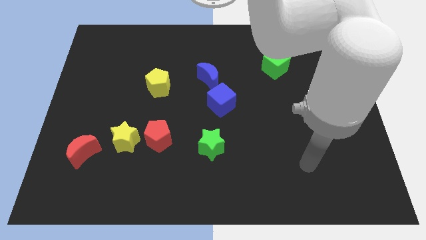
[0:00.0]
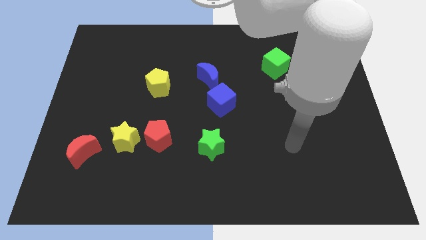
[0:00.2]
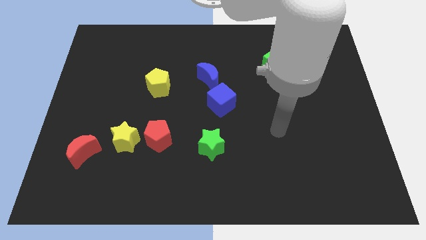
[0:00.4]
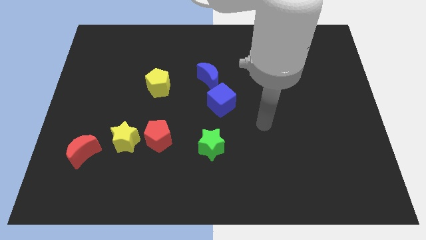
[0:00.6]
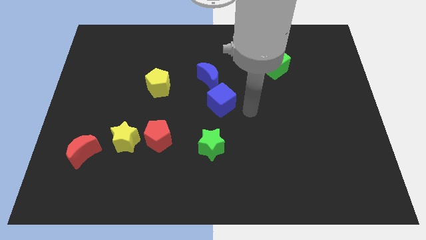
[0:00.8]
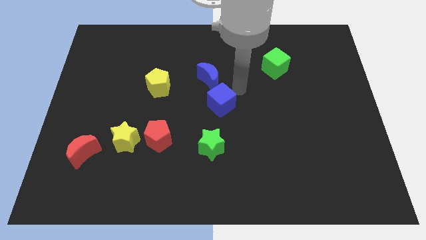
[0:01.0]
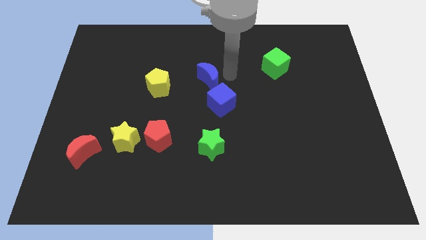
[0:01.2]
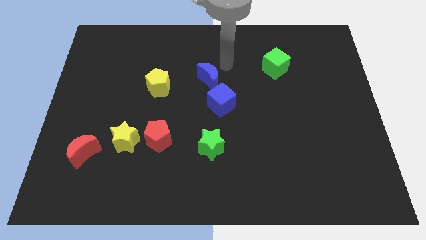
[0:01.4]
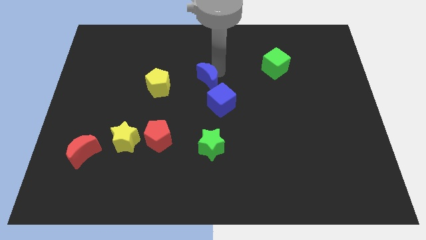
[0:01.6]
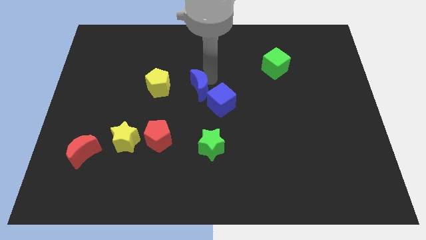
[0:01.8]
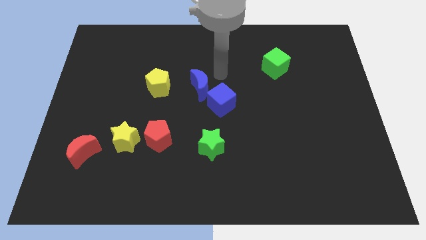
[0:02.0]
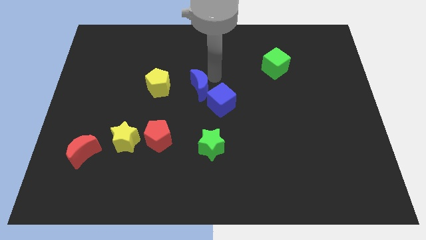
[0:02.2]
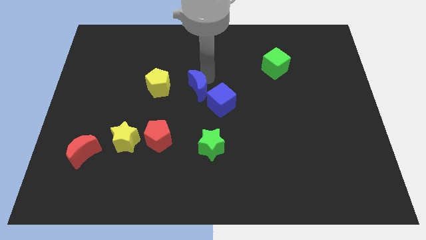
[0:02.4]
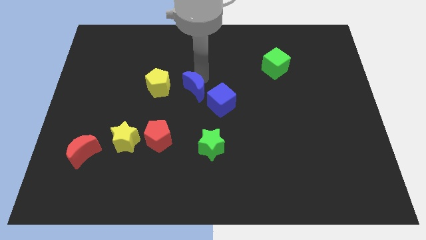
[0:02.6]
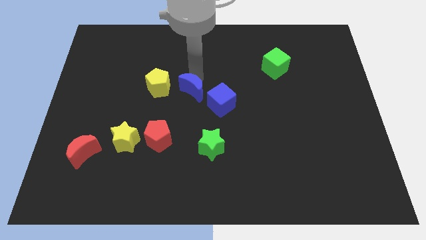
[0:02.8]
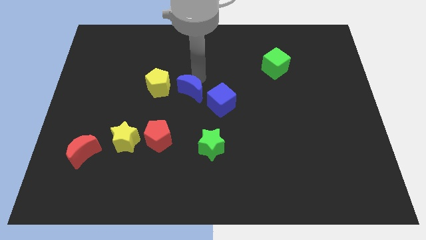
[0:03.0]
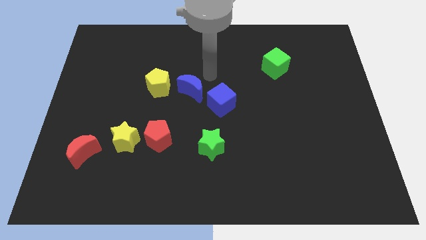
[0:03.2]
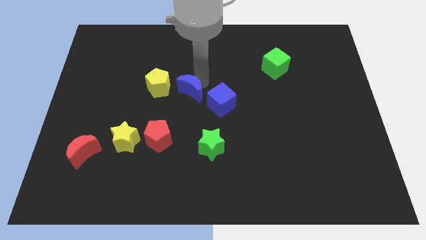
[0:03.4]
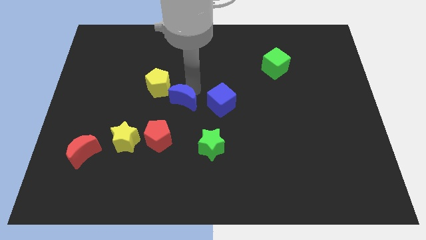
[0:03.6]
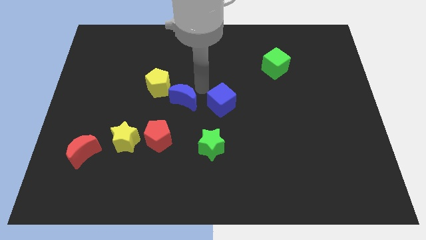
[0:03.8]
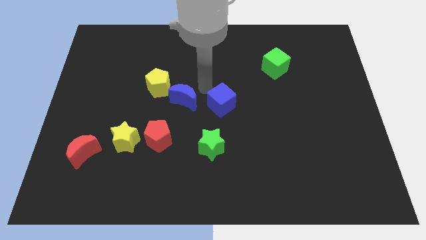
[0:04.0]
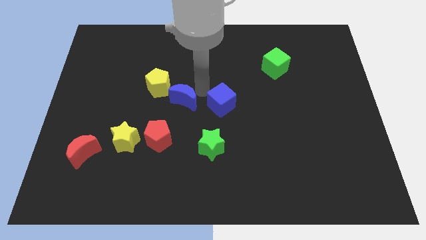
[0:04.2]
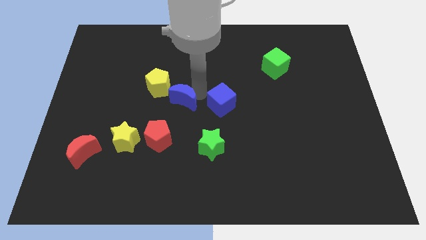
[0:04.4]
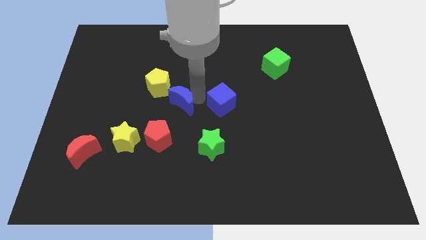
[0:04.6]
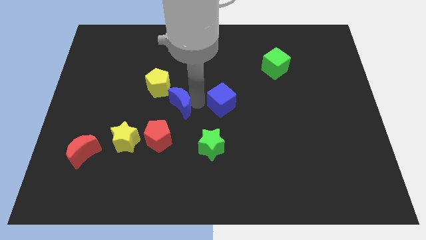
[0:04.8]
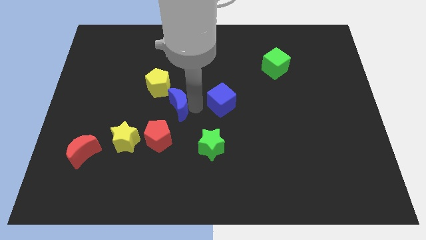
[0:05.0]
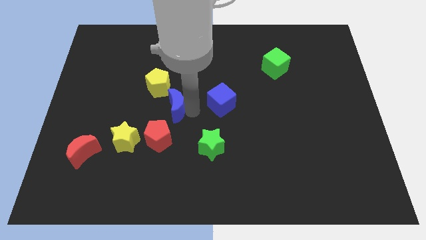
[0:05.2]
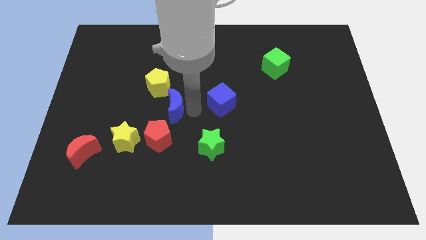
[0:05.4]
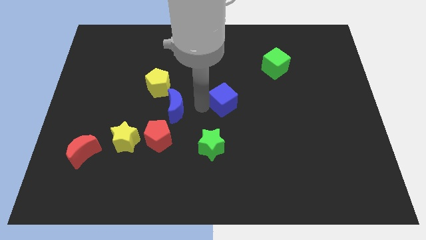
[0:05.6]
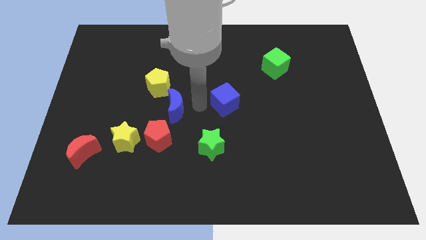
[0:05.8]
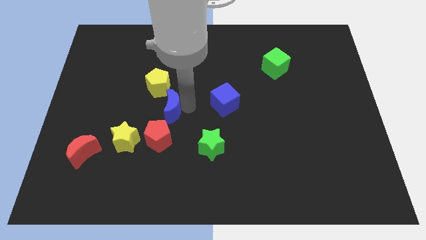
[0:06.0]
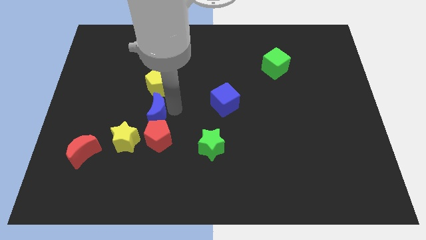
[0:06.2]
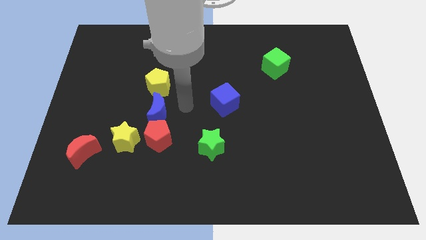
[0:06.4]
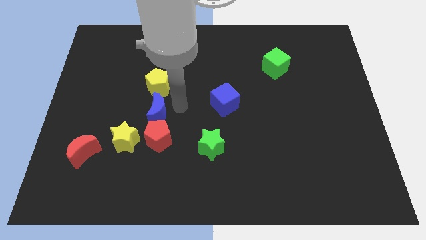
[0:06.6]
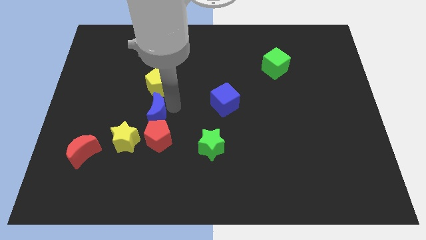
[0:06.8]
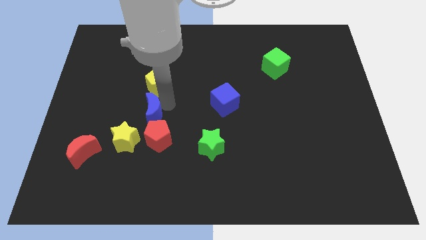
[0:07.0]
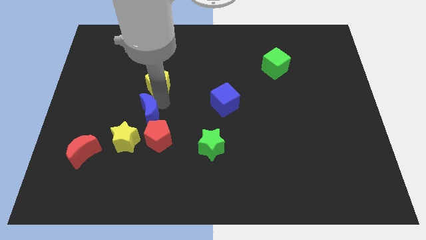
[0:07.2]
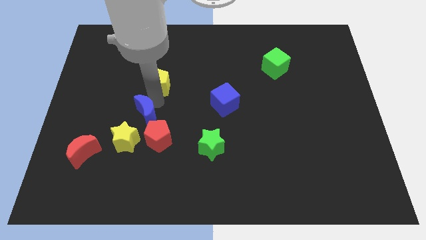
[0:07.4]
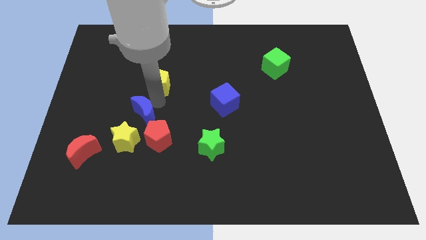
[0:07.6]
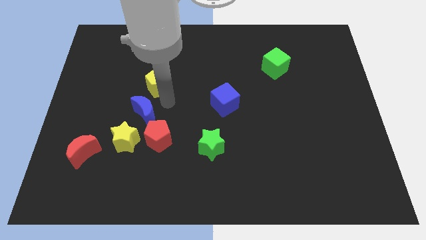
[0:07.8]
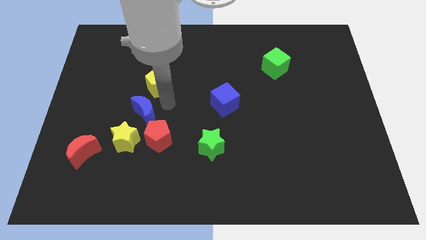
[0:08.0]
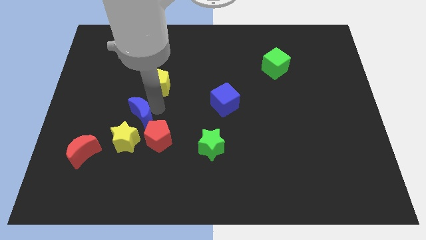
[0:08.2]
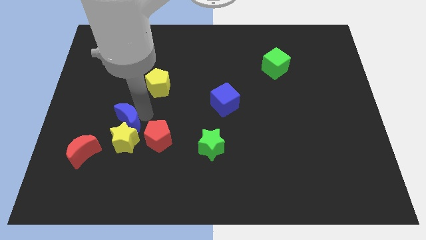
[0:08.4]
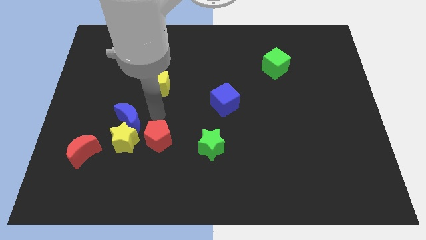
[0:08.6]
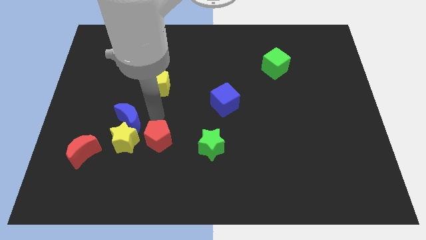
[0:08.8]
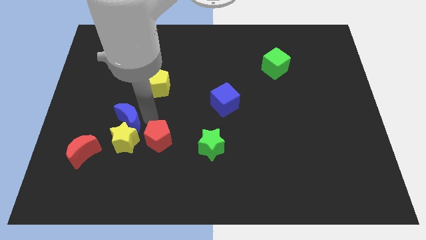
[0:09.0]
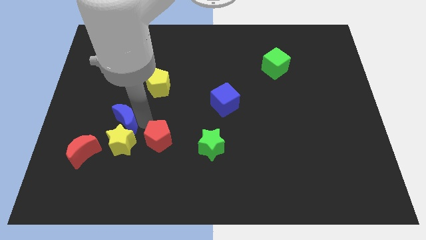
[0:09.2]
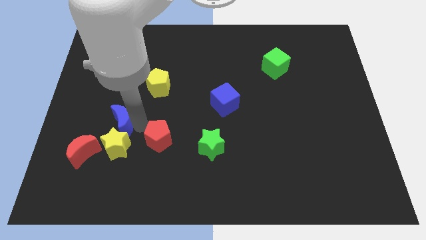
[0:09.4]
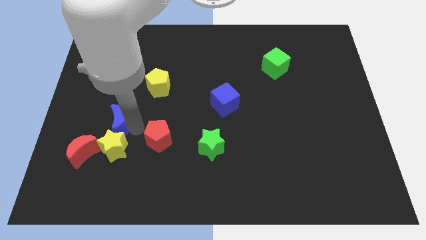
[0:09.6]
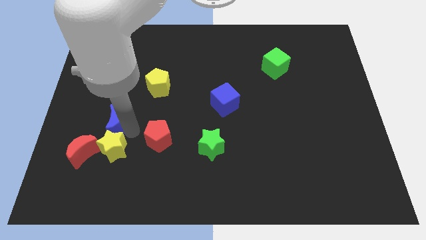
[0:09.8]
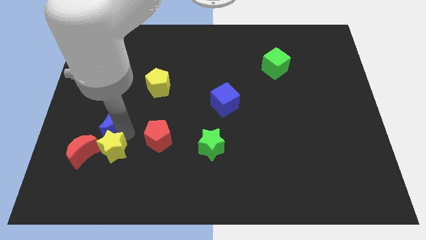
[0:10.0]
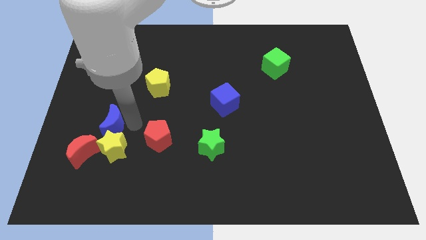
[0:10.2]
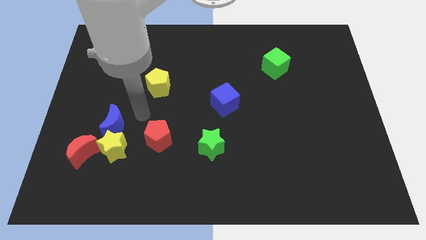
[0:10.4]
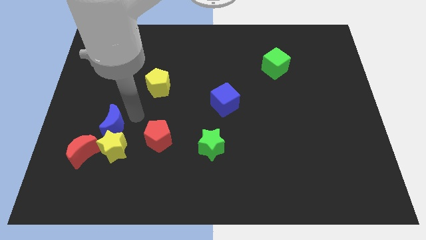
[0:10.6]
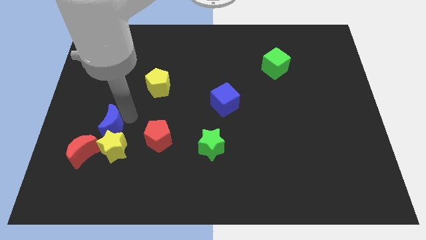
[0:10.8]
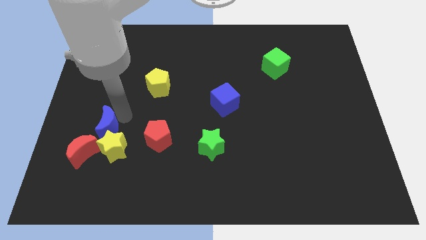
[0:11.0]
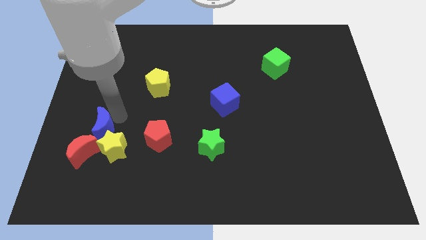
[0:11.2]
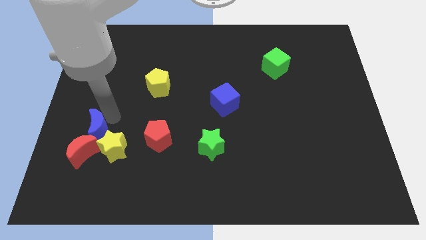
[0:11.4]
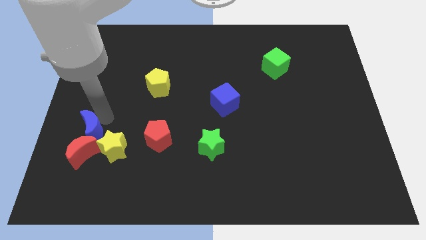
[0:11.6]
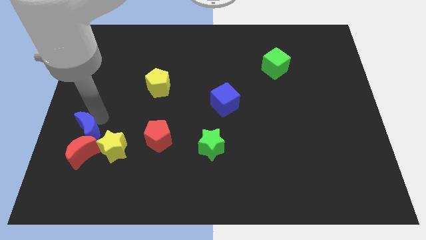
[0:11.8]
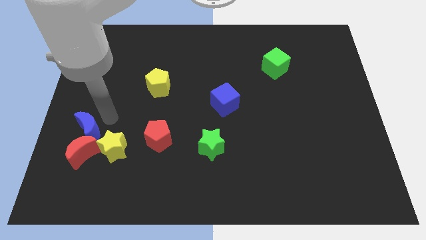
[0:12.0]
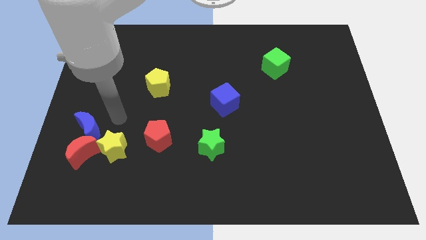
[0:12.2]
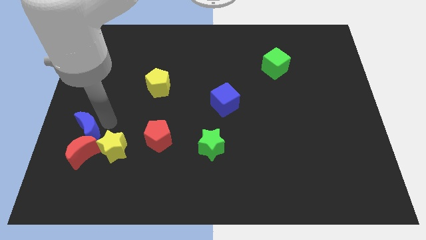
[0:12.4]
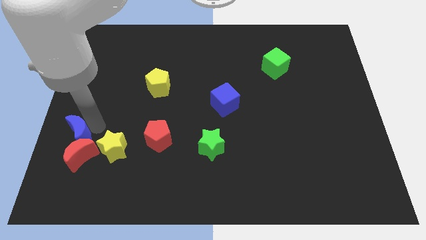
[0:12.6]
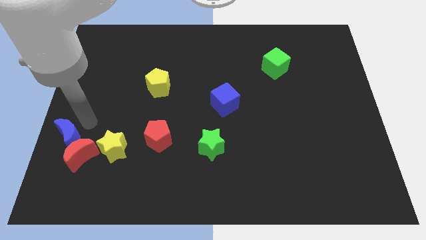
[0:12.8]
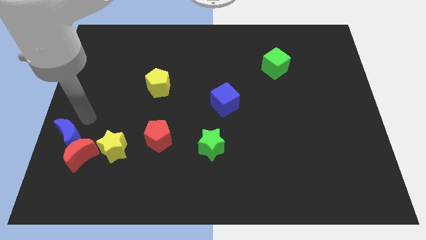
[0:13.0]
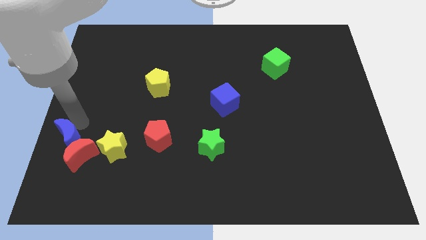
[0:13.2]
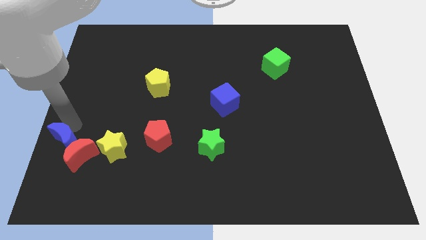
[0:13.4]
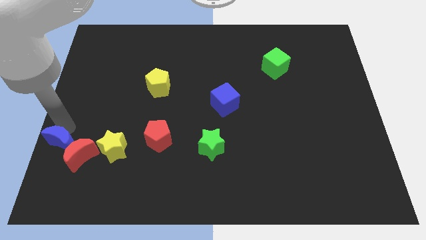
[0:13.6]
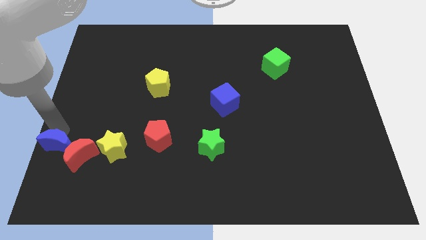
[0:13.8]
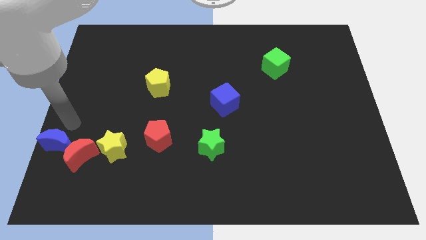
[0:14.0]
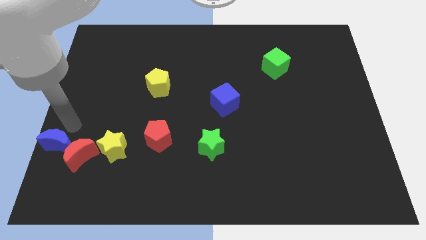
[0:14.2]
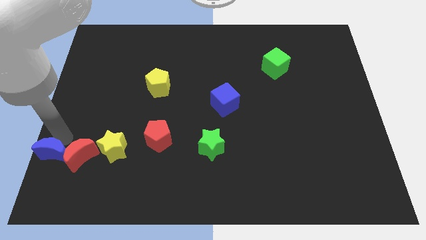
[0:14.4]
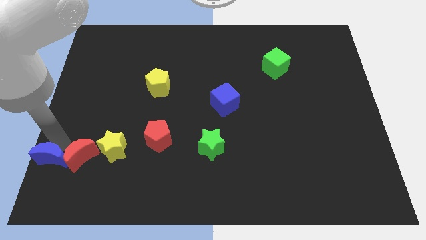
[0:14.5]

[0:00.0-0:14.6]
slide the blue moon to the lower left corner
